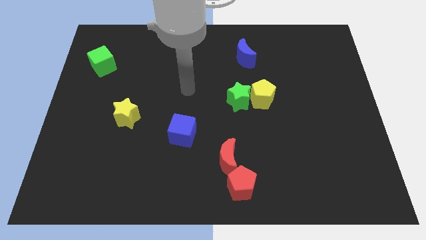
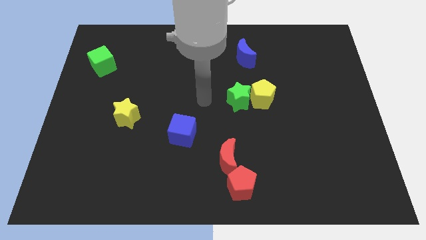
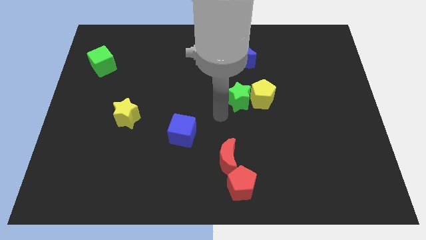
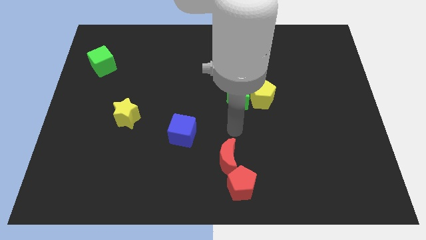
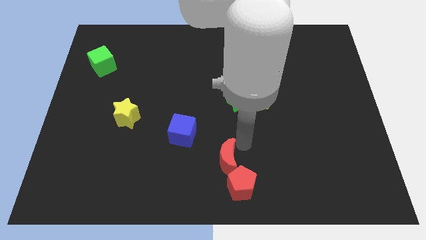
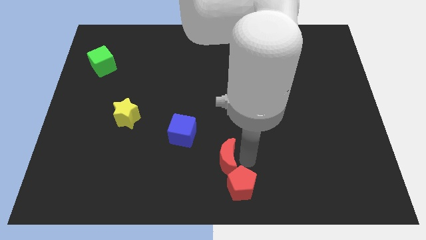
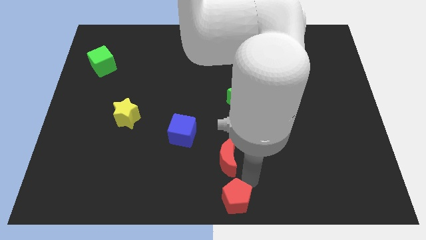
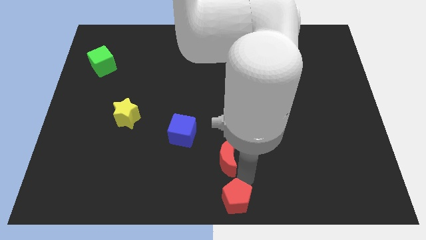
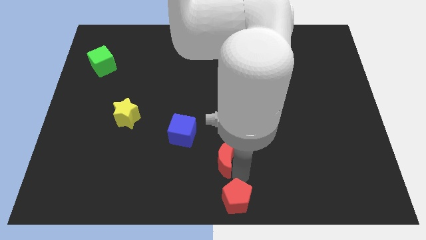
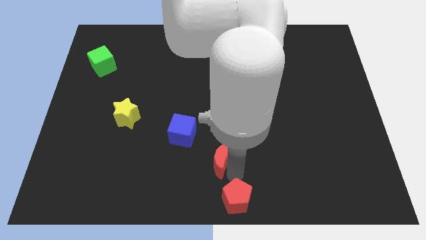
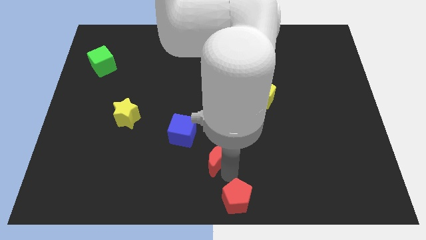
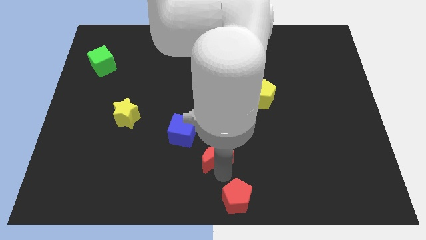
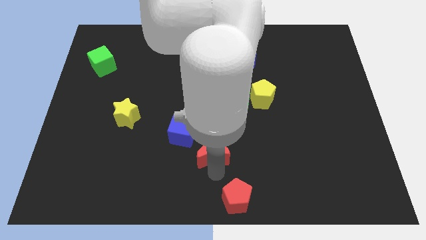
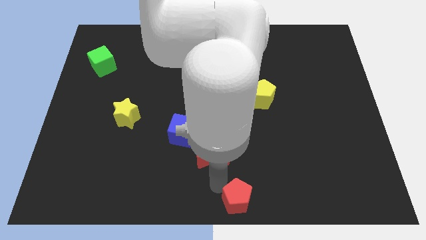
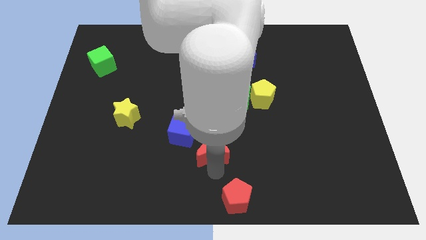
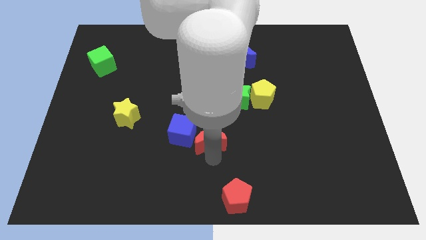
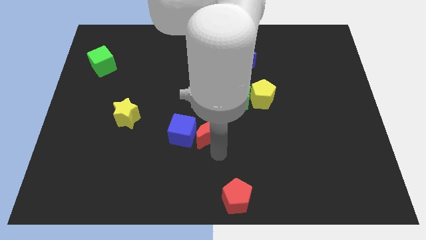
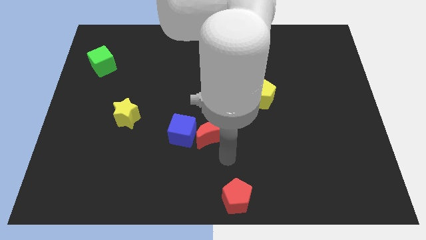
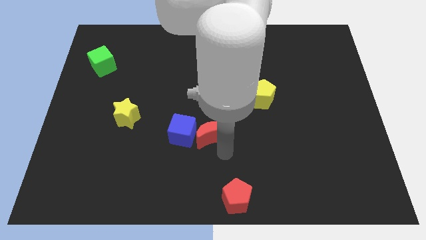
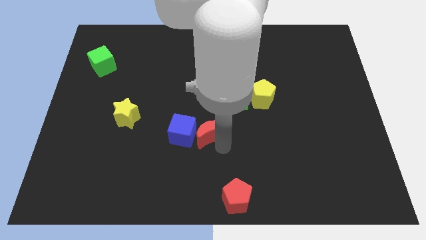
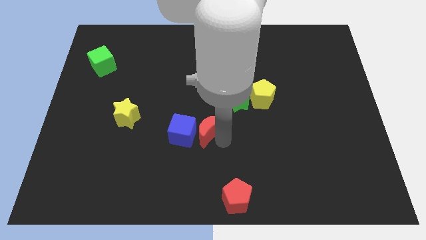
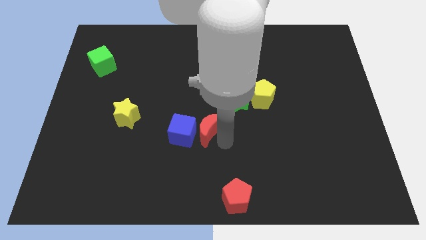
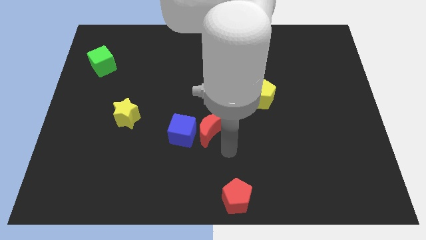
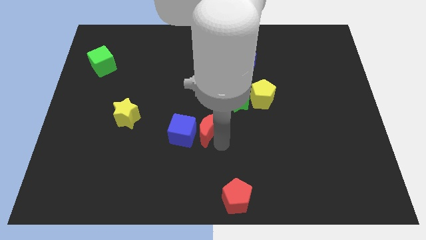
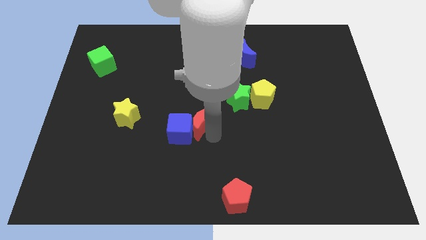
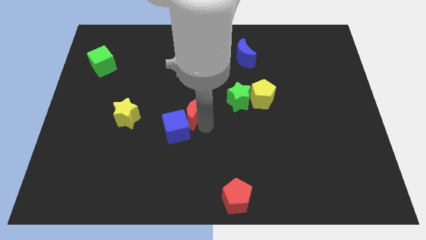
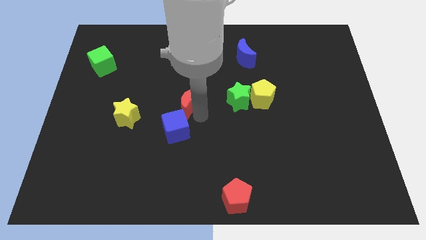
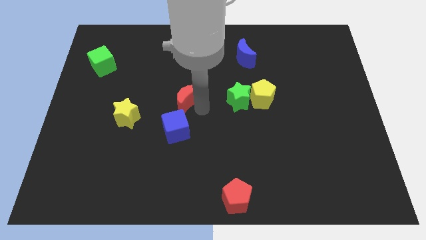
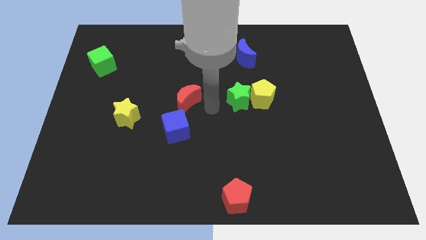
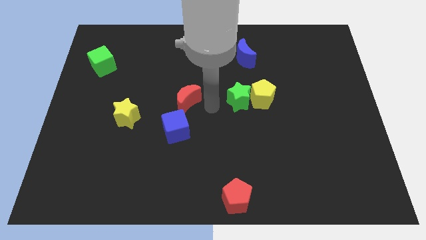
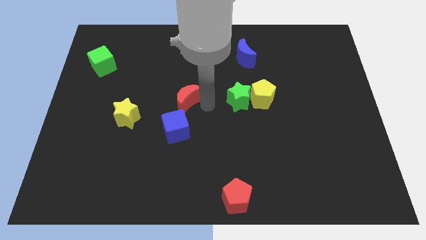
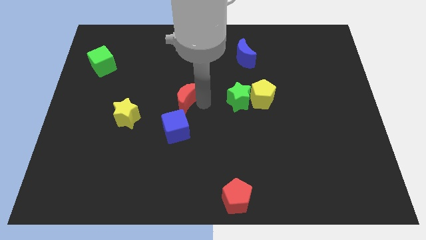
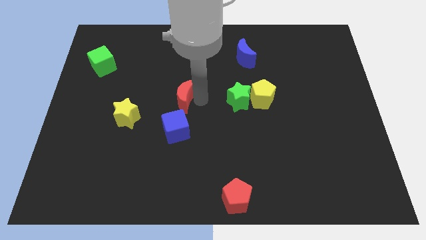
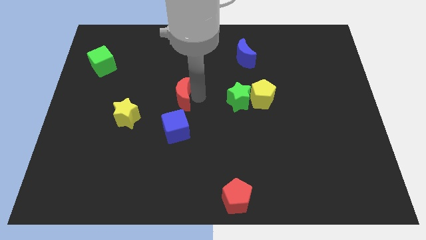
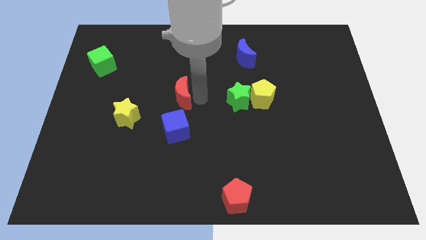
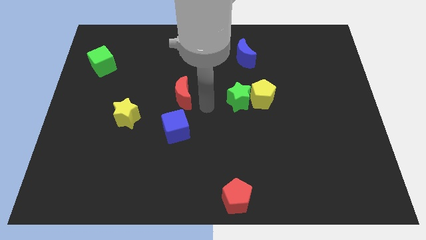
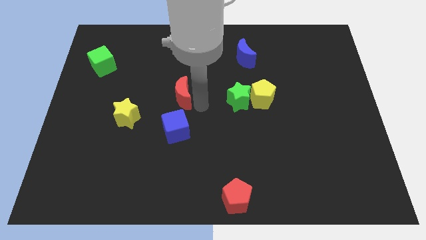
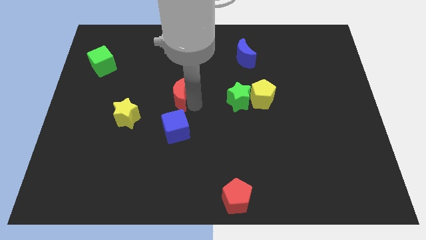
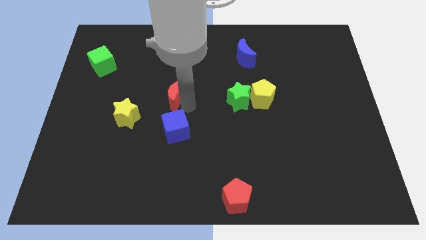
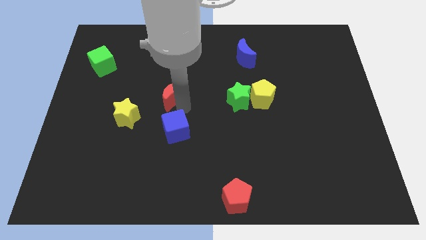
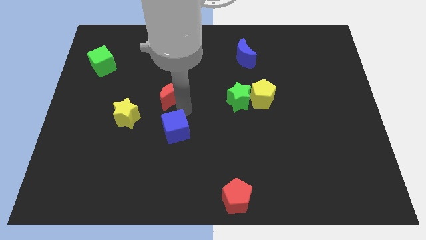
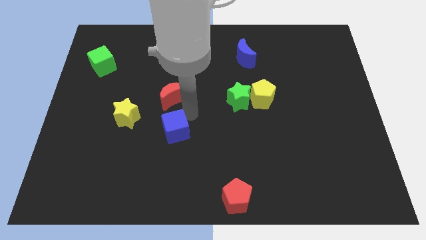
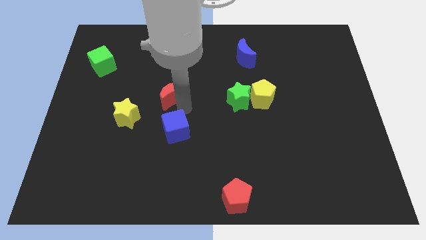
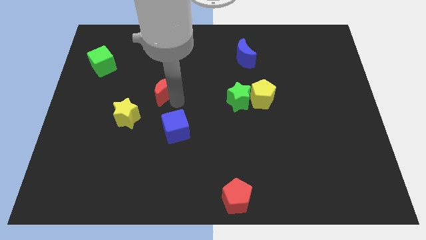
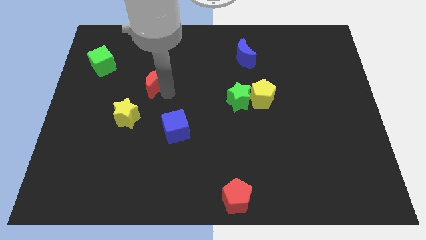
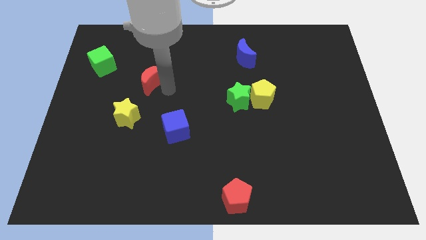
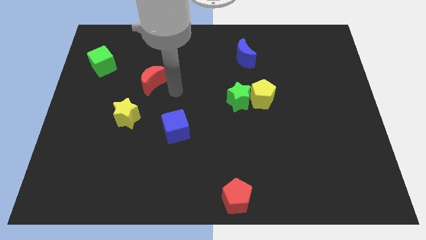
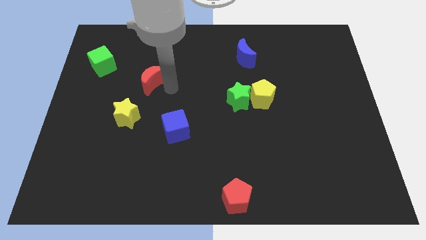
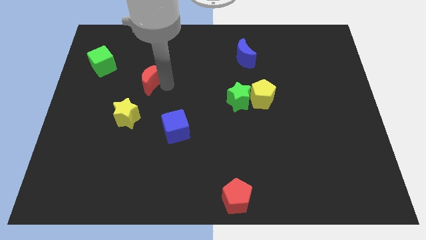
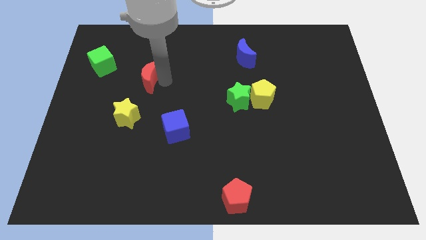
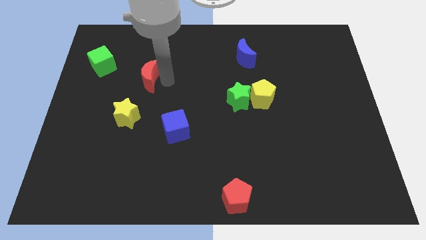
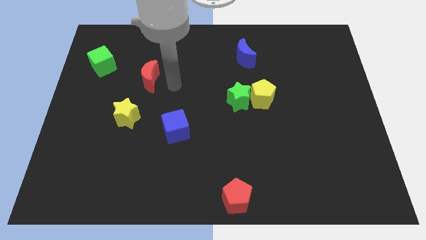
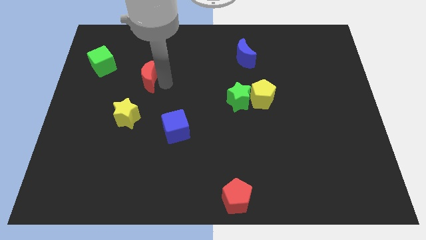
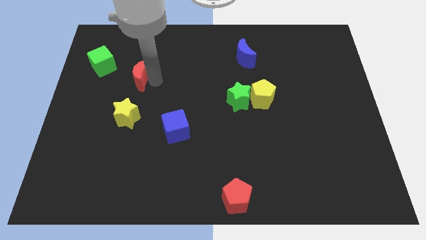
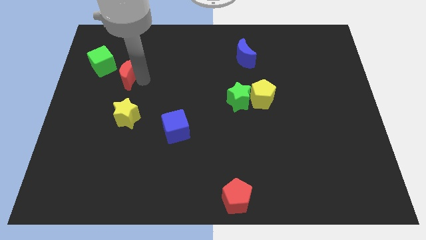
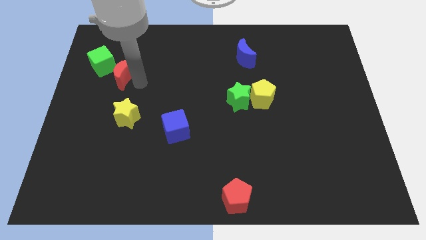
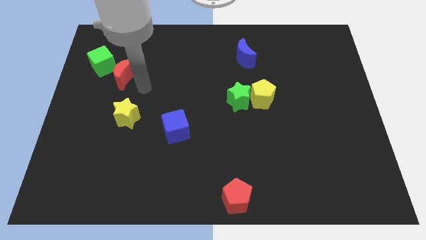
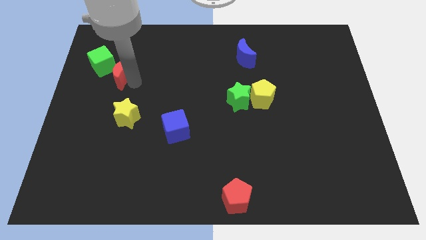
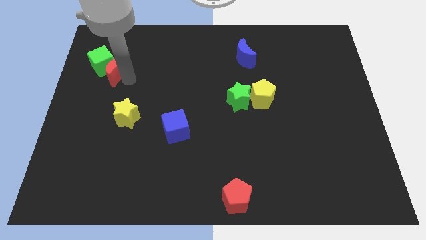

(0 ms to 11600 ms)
move the red moon to the green cube

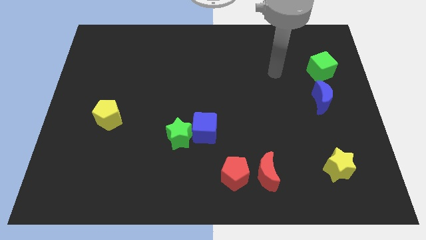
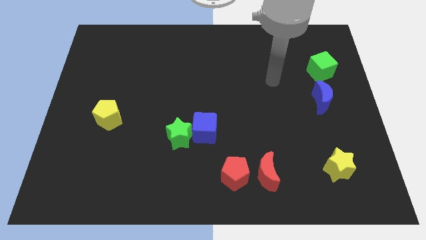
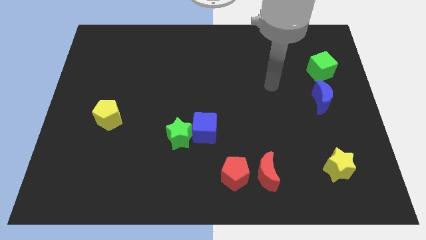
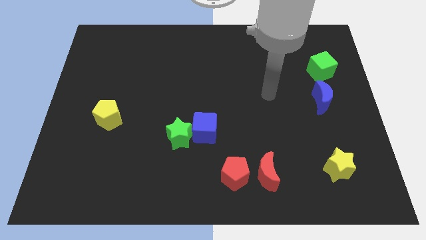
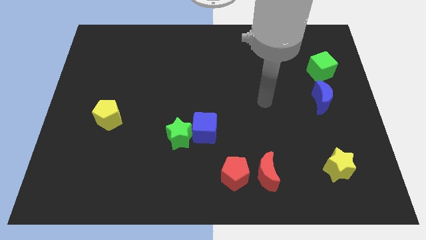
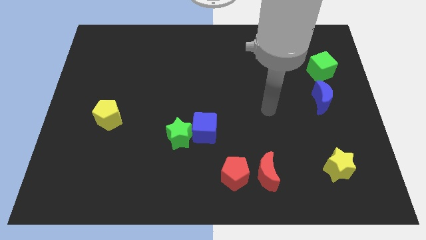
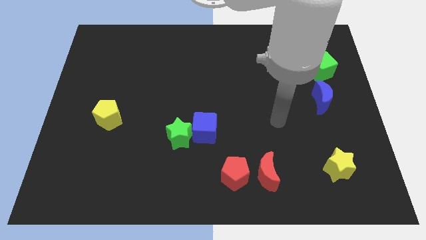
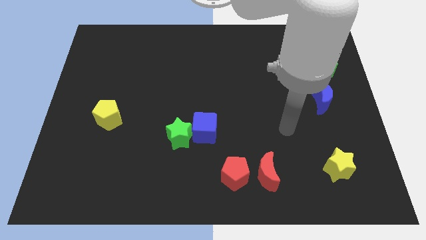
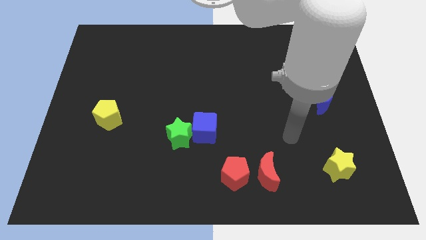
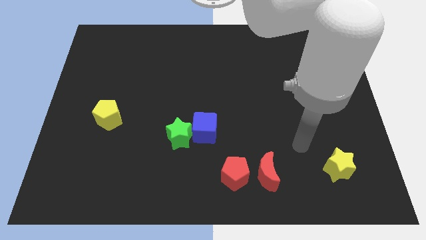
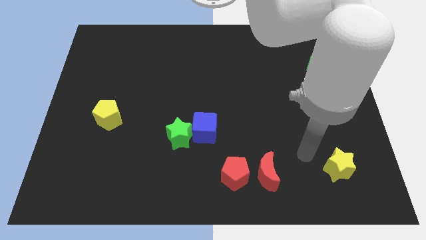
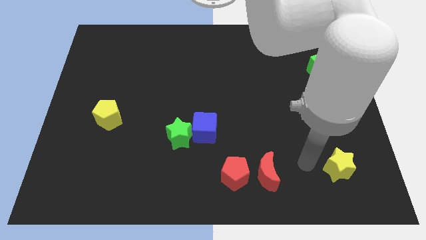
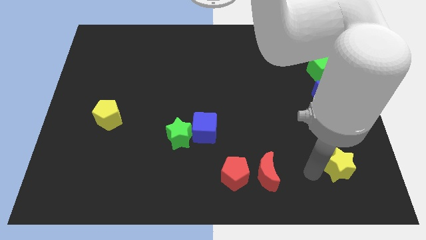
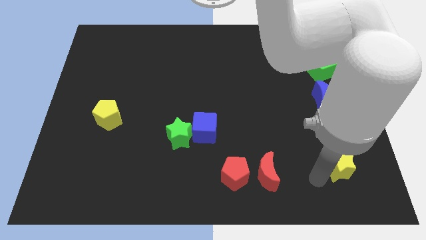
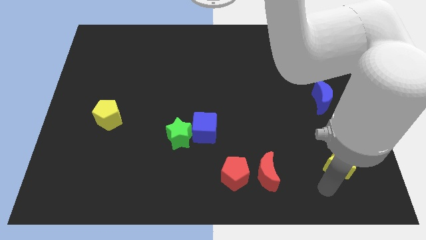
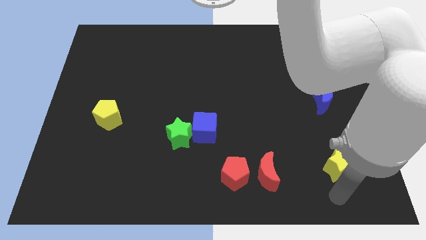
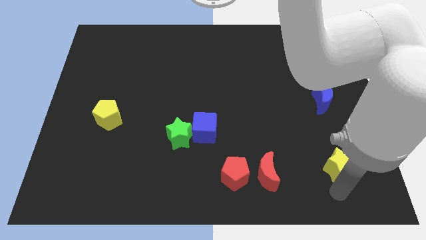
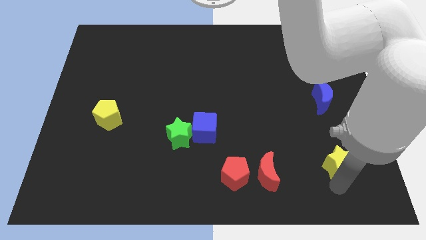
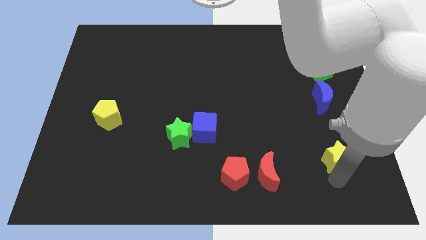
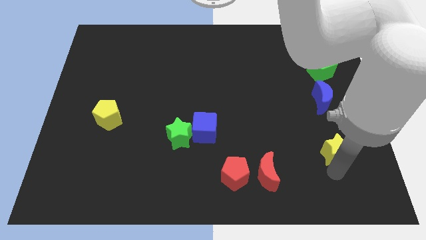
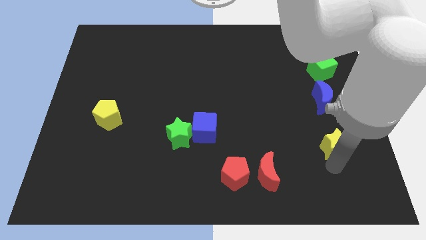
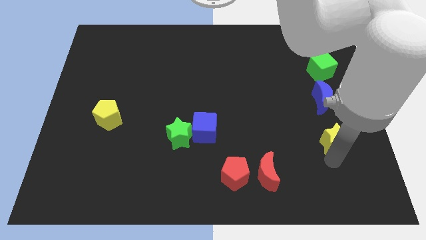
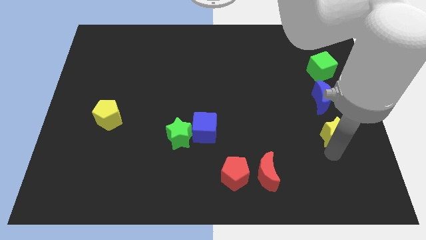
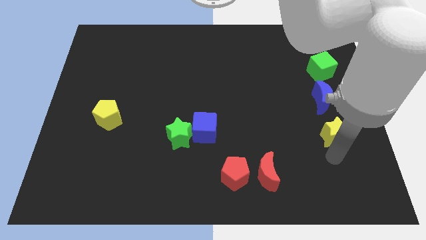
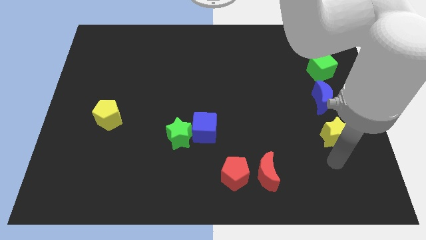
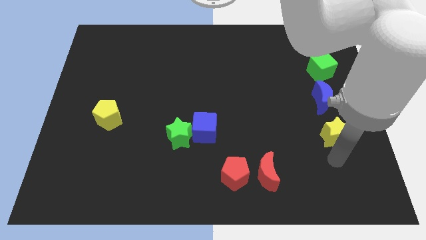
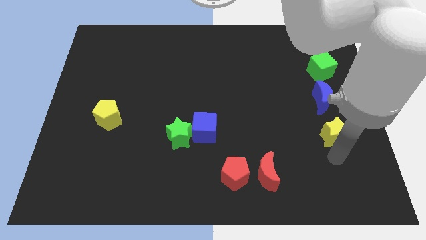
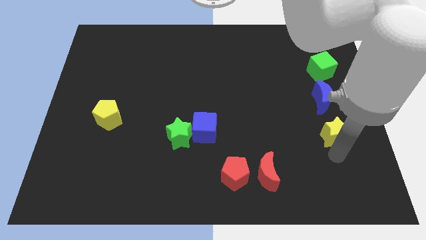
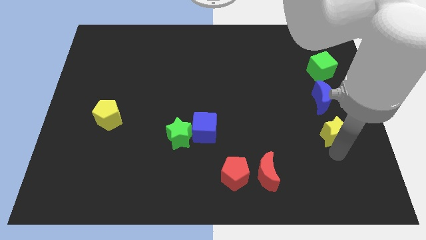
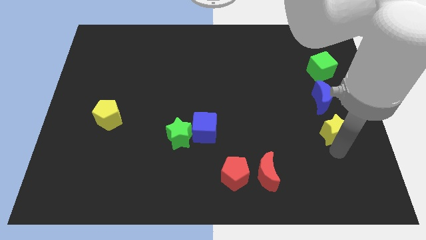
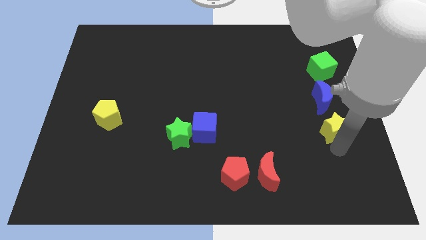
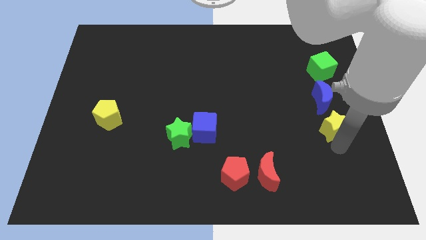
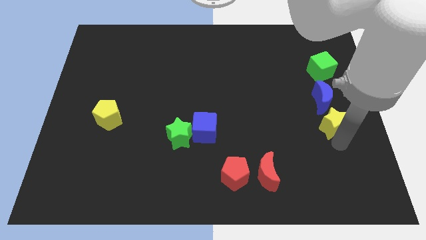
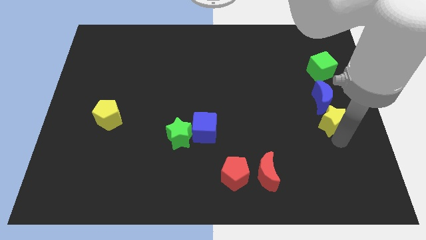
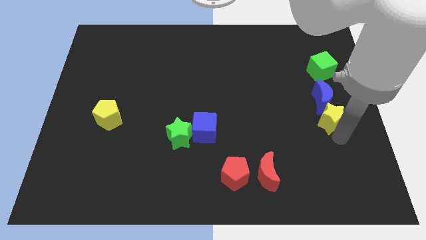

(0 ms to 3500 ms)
push the yellow star to the blue moon
